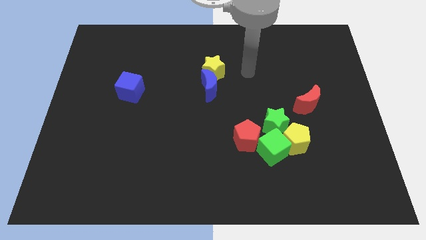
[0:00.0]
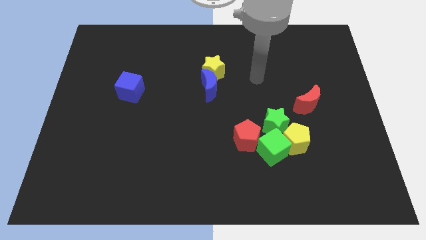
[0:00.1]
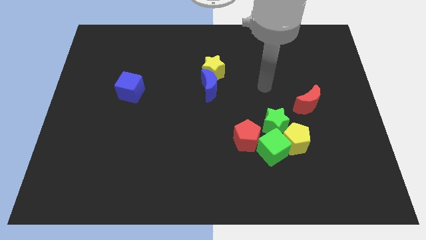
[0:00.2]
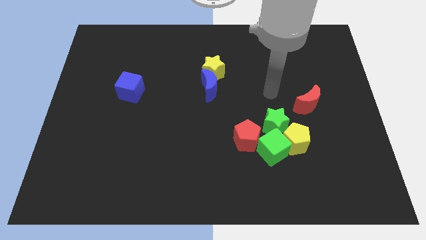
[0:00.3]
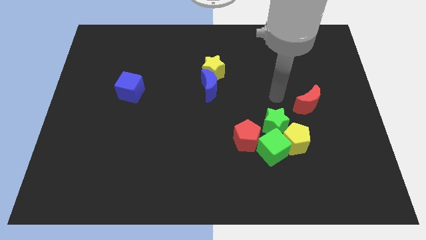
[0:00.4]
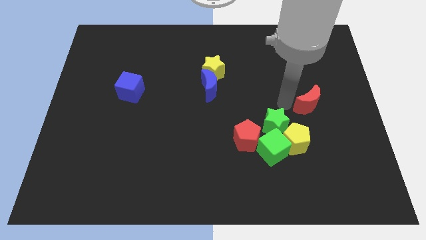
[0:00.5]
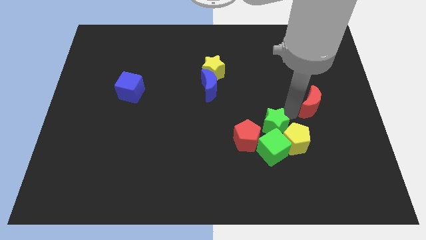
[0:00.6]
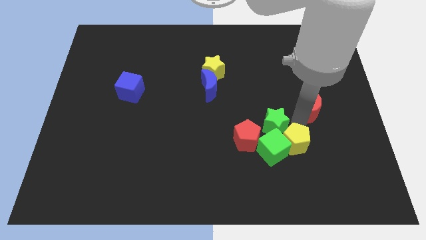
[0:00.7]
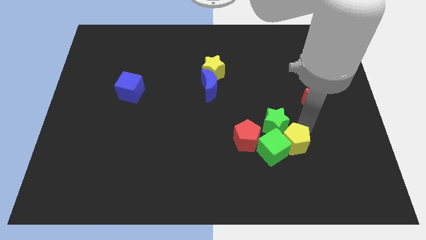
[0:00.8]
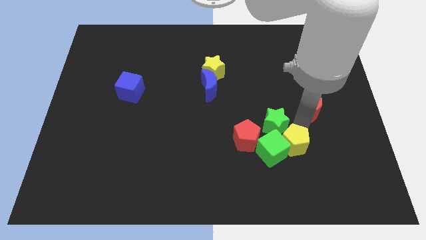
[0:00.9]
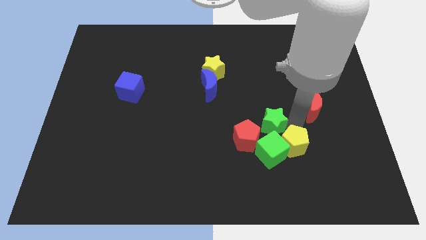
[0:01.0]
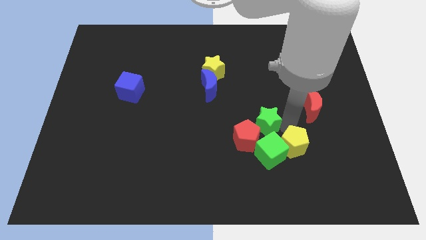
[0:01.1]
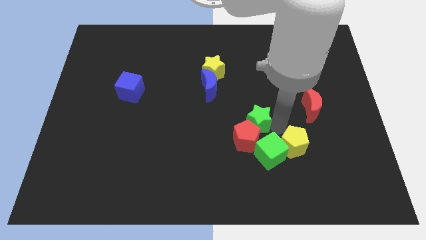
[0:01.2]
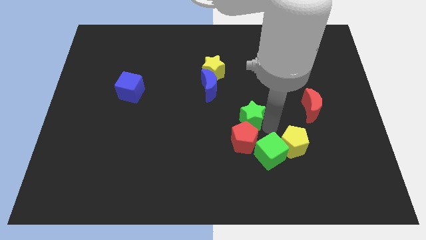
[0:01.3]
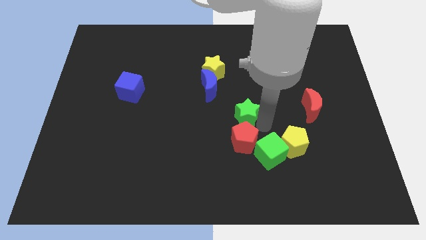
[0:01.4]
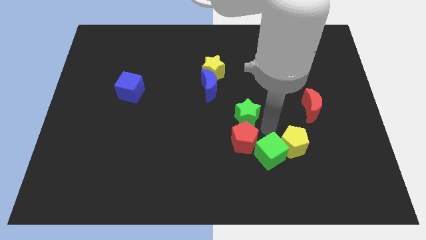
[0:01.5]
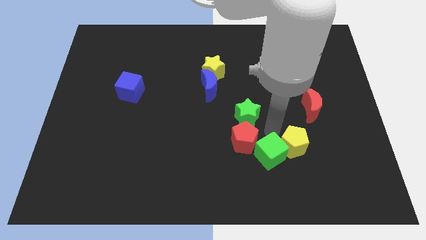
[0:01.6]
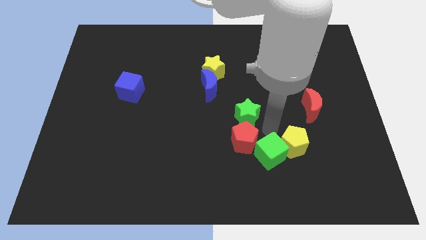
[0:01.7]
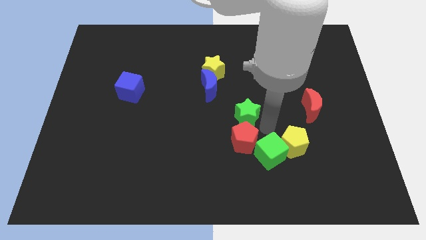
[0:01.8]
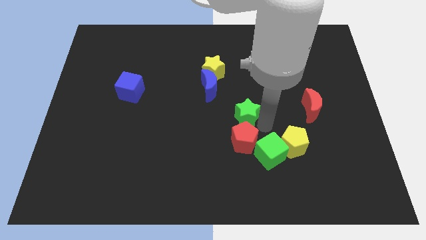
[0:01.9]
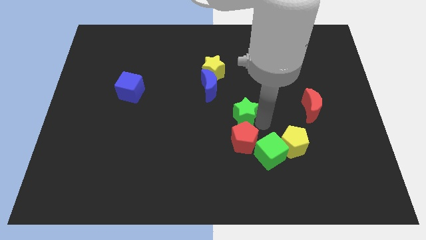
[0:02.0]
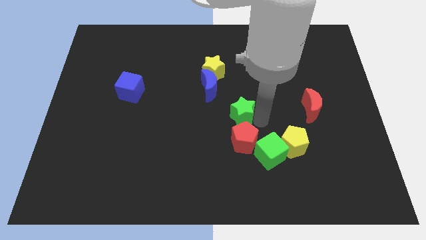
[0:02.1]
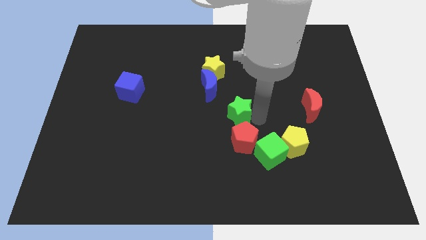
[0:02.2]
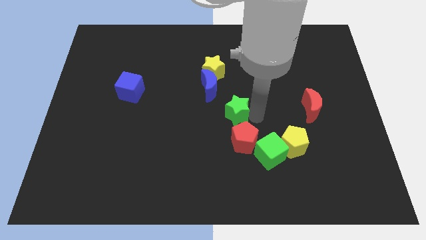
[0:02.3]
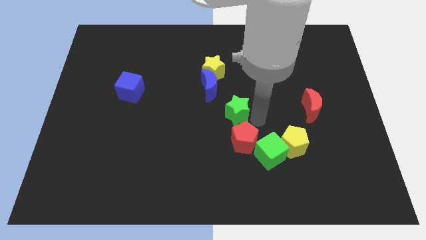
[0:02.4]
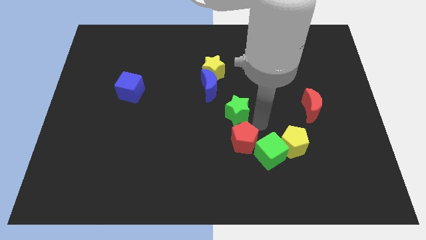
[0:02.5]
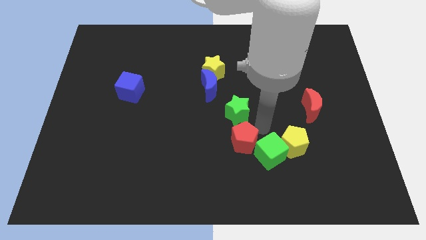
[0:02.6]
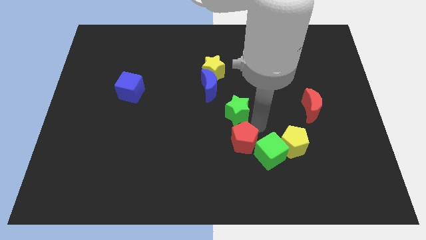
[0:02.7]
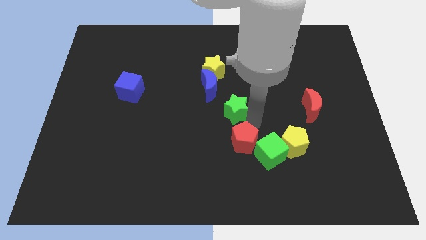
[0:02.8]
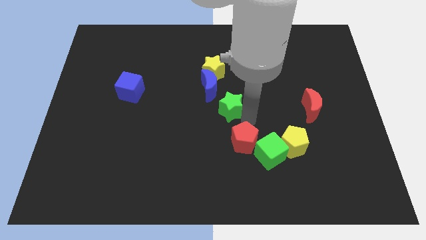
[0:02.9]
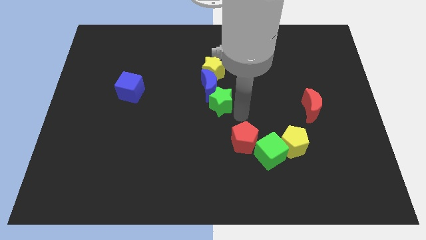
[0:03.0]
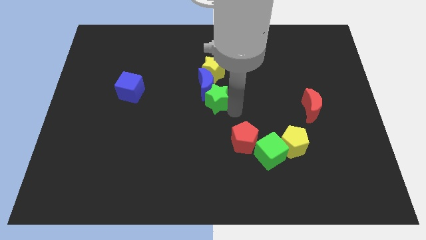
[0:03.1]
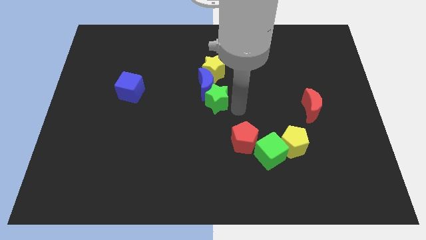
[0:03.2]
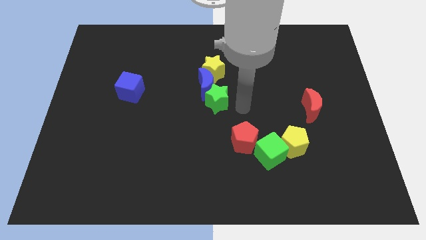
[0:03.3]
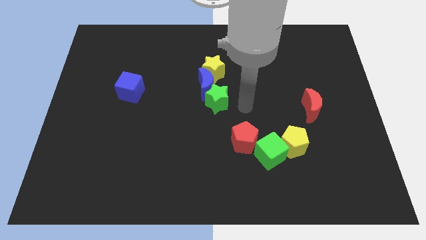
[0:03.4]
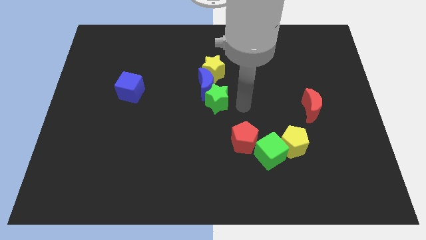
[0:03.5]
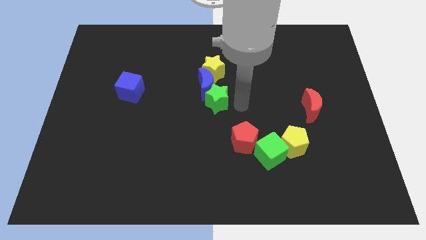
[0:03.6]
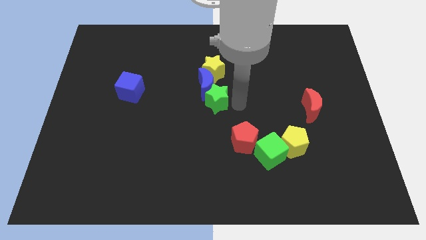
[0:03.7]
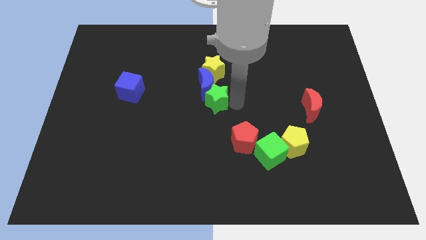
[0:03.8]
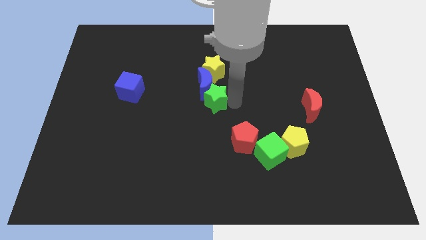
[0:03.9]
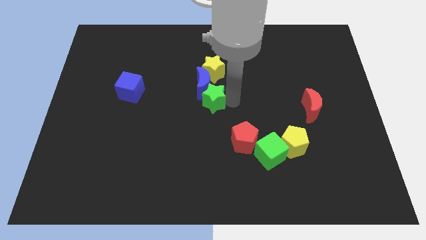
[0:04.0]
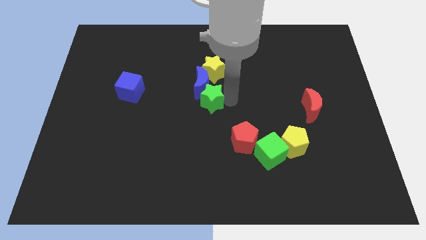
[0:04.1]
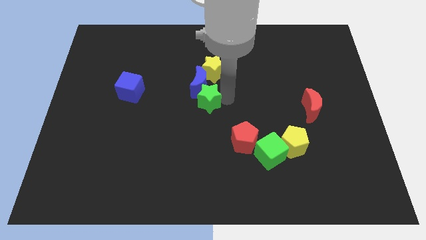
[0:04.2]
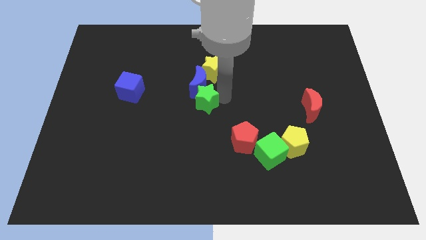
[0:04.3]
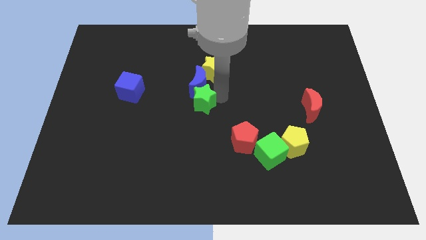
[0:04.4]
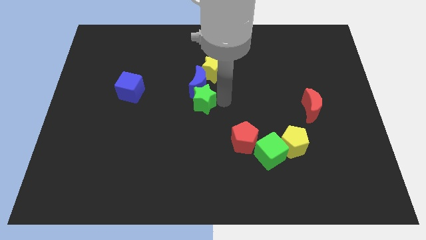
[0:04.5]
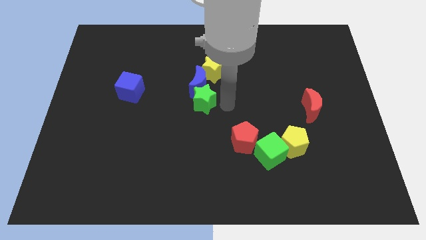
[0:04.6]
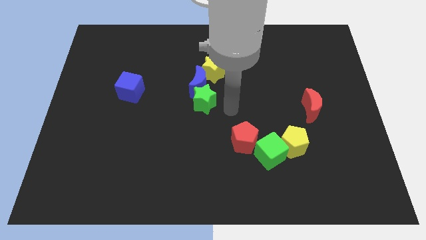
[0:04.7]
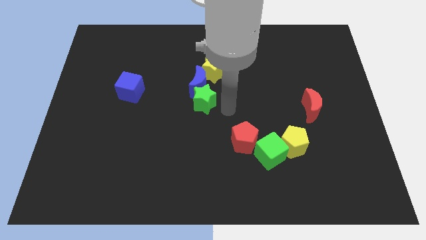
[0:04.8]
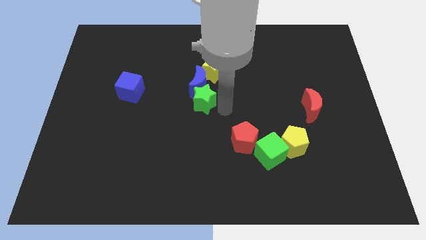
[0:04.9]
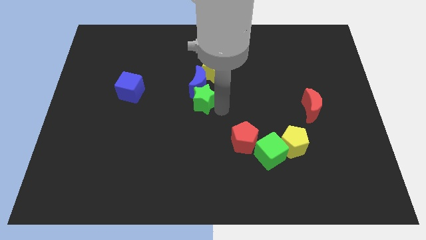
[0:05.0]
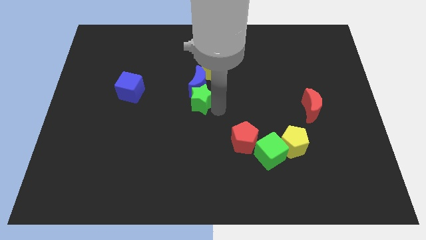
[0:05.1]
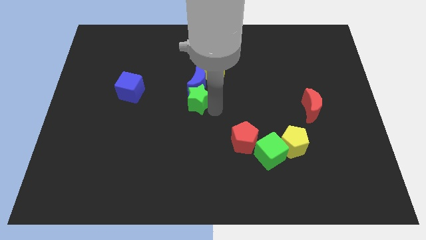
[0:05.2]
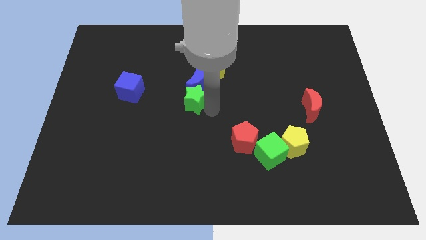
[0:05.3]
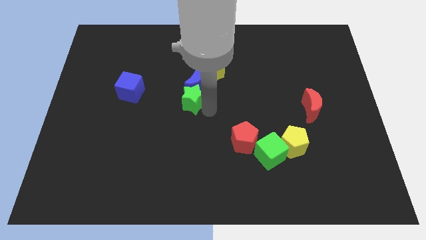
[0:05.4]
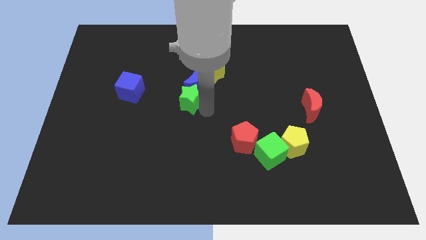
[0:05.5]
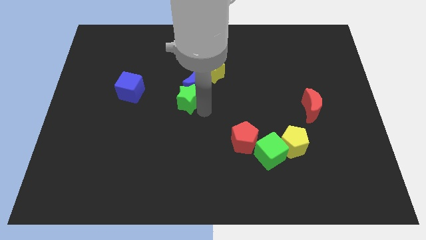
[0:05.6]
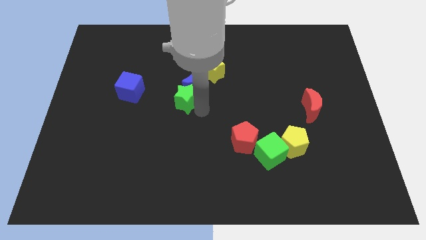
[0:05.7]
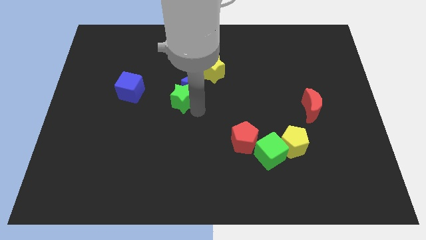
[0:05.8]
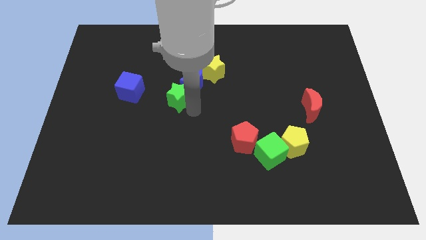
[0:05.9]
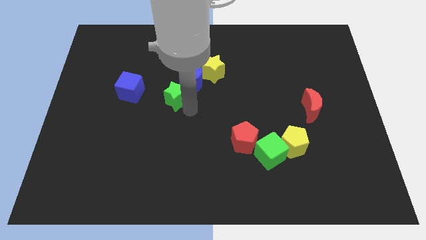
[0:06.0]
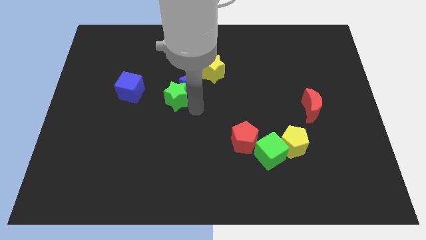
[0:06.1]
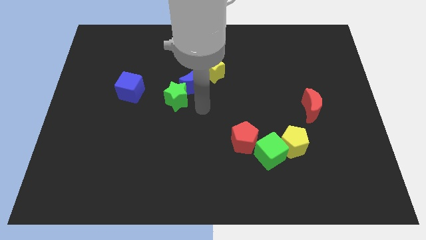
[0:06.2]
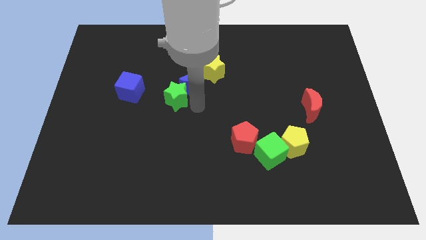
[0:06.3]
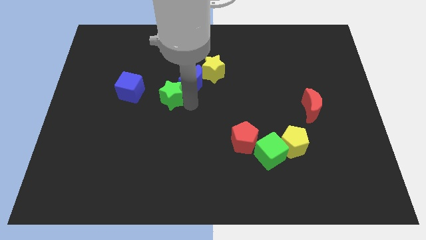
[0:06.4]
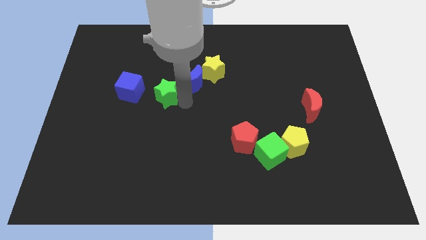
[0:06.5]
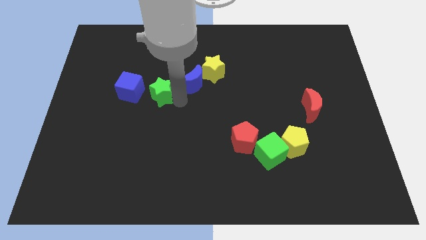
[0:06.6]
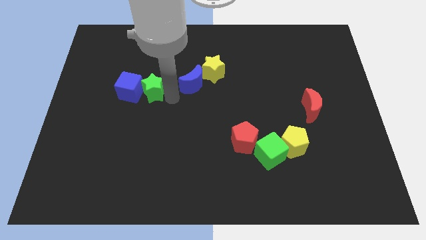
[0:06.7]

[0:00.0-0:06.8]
put the green star towards the blue cube
